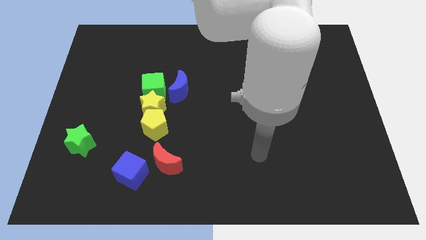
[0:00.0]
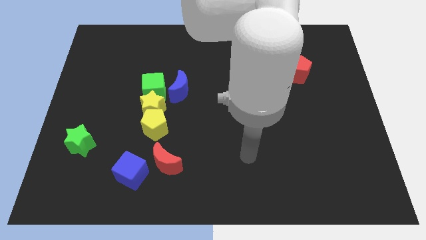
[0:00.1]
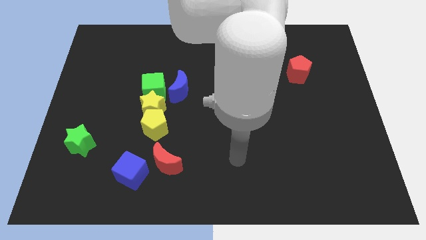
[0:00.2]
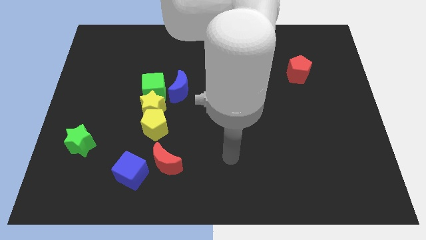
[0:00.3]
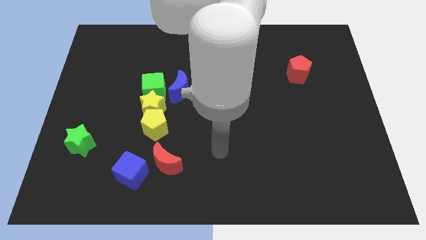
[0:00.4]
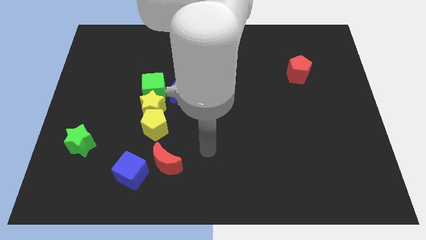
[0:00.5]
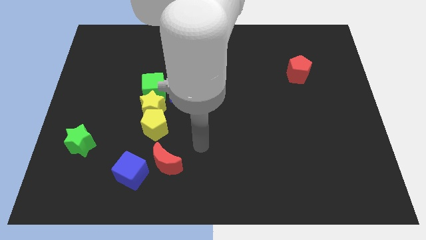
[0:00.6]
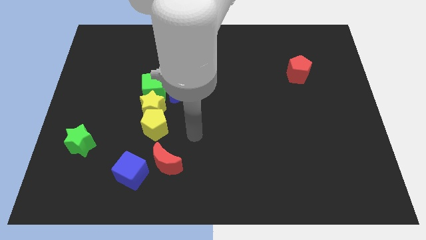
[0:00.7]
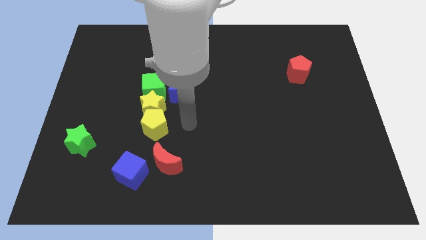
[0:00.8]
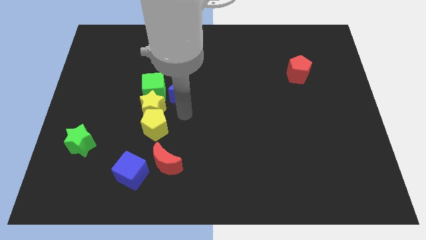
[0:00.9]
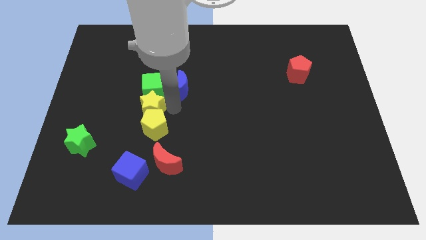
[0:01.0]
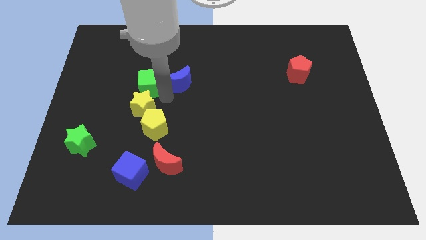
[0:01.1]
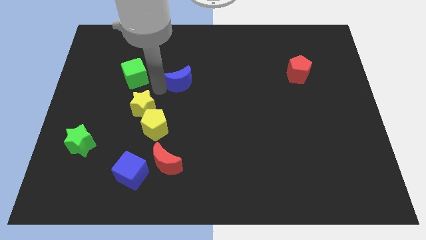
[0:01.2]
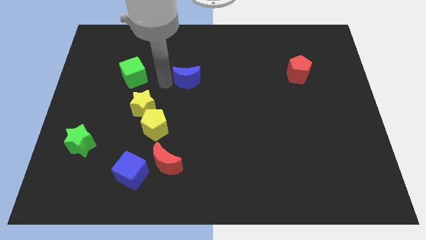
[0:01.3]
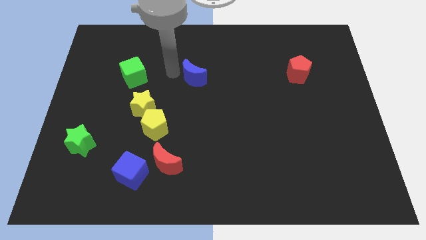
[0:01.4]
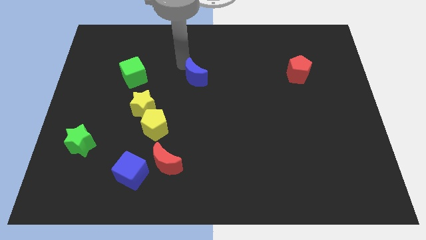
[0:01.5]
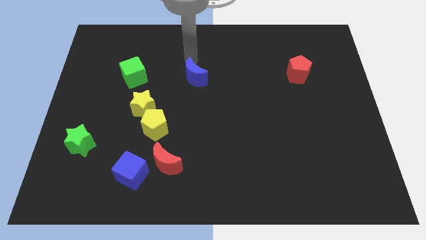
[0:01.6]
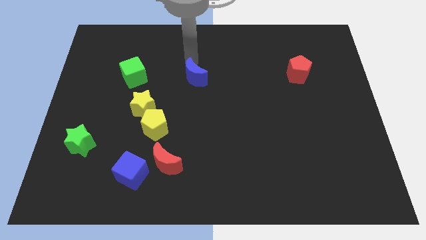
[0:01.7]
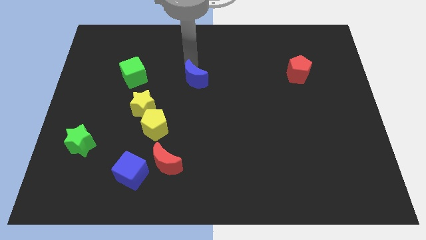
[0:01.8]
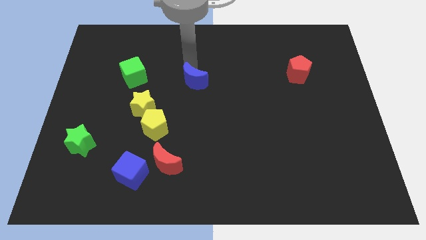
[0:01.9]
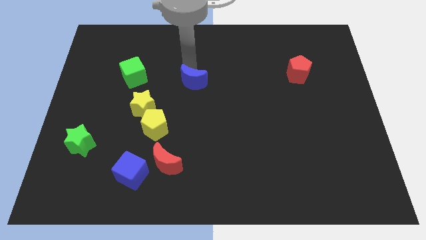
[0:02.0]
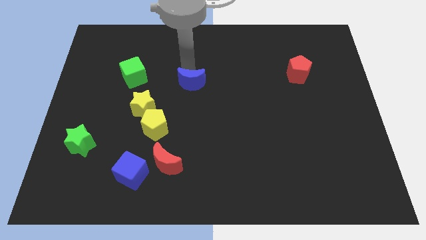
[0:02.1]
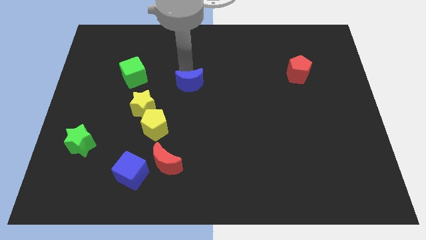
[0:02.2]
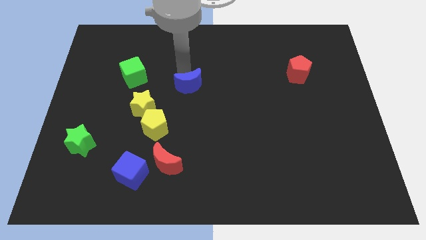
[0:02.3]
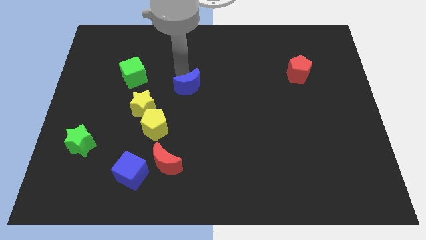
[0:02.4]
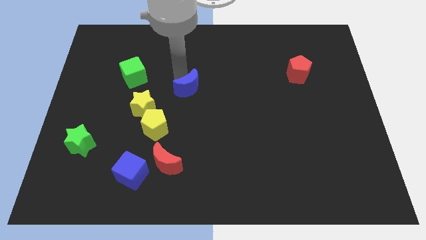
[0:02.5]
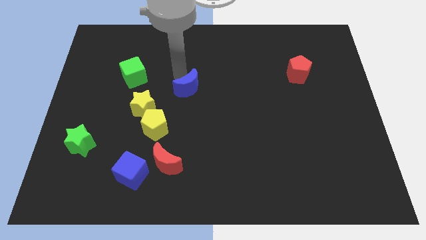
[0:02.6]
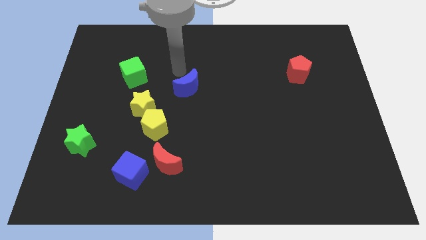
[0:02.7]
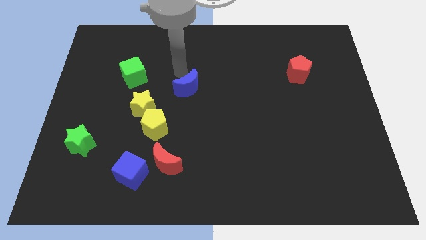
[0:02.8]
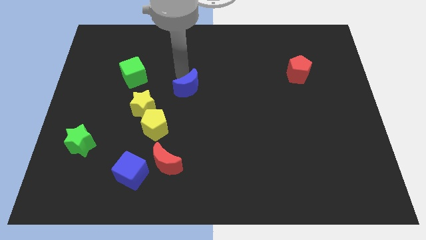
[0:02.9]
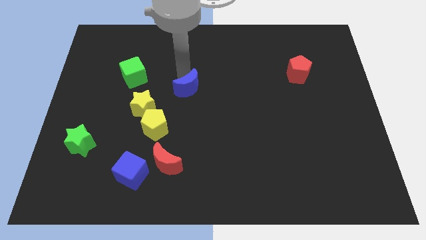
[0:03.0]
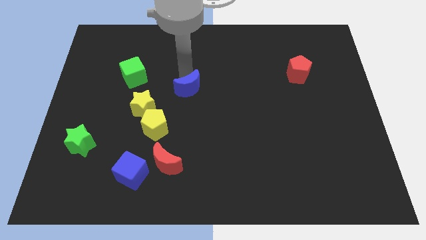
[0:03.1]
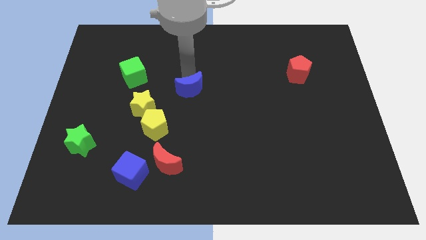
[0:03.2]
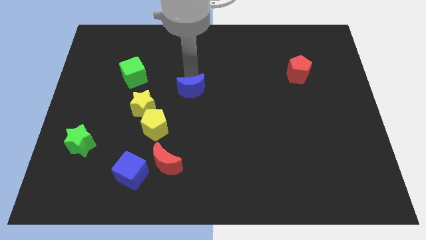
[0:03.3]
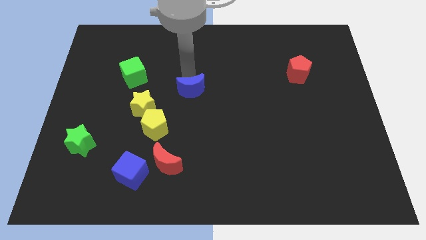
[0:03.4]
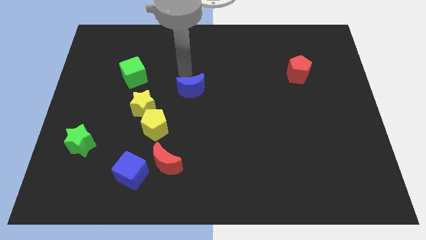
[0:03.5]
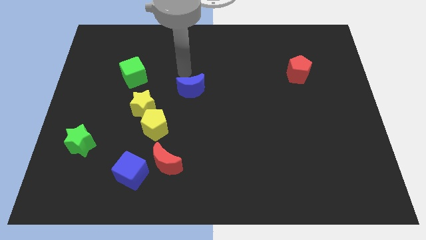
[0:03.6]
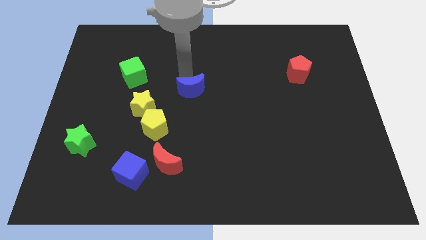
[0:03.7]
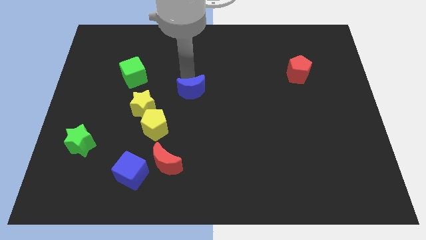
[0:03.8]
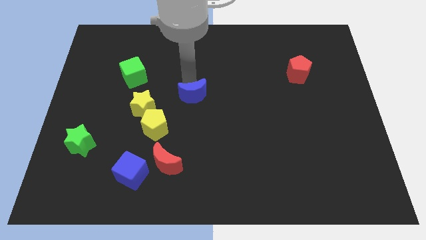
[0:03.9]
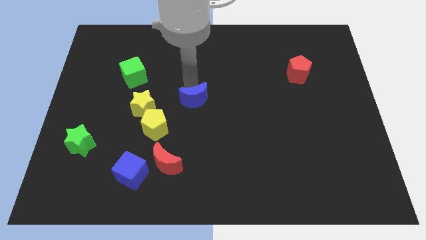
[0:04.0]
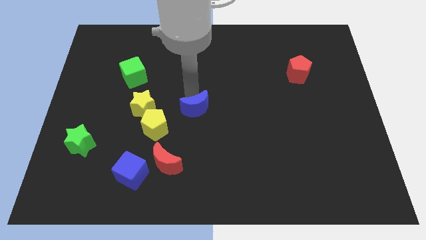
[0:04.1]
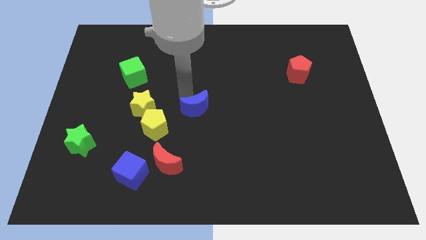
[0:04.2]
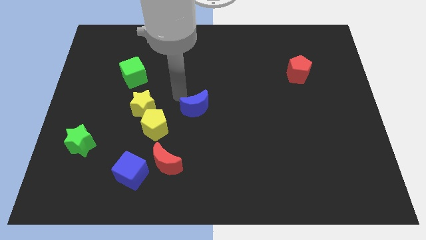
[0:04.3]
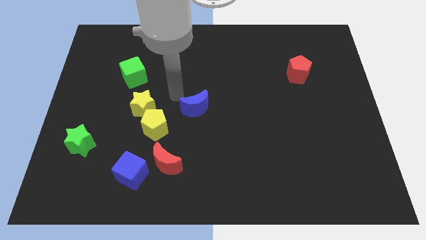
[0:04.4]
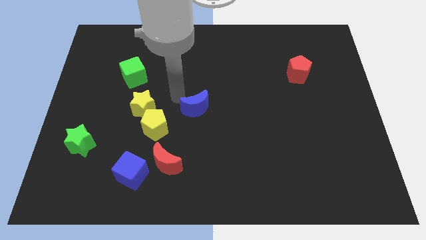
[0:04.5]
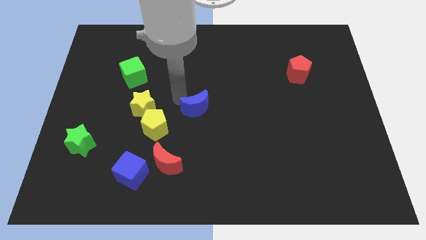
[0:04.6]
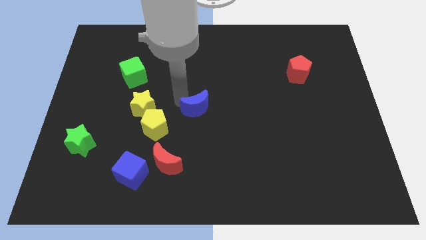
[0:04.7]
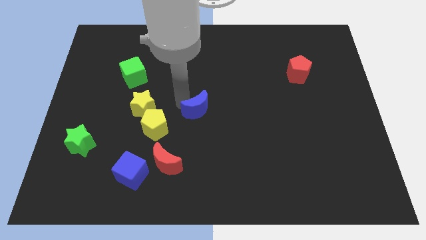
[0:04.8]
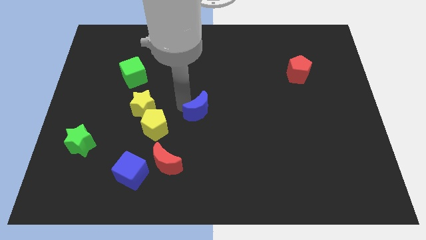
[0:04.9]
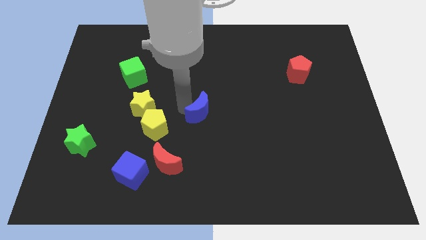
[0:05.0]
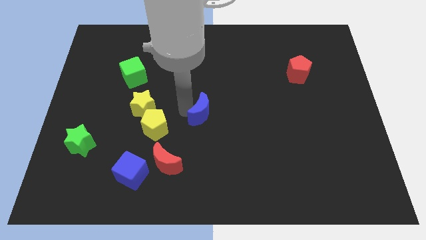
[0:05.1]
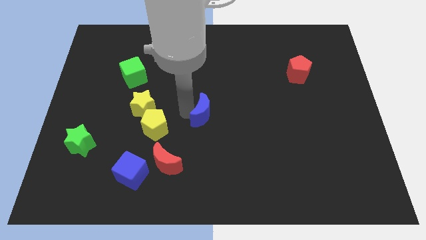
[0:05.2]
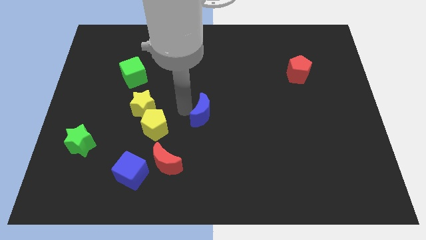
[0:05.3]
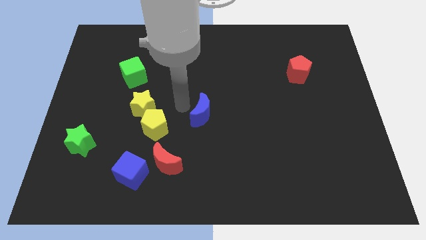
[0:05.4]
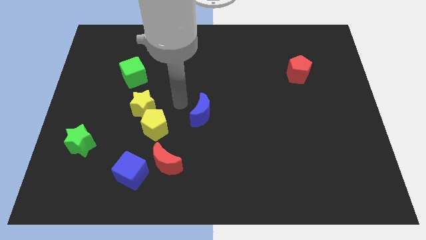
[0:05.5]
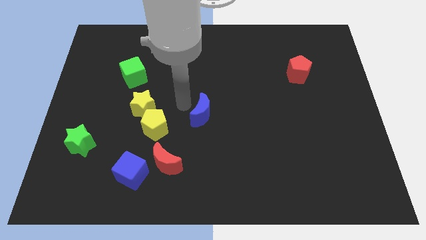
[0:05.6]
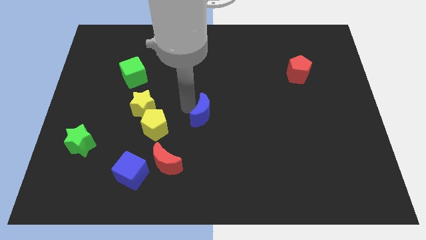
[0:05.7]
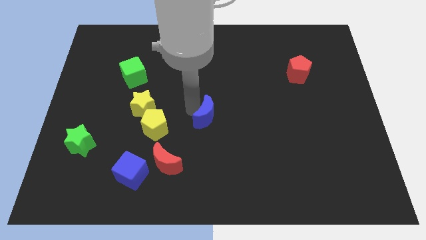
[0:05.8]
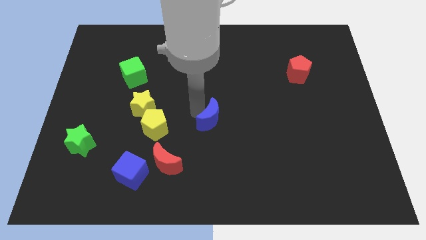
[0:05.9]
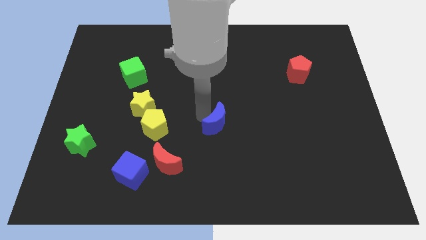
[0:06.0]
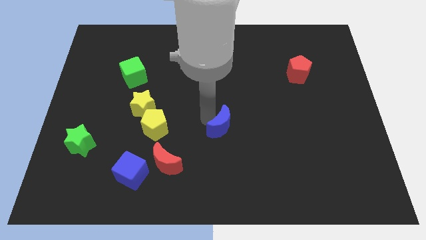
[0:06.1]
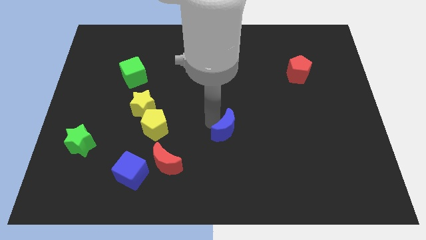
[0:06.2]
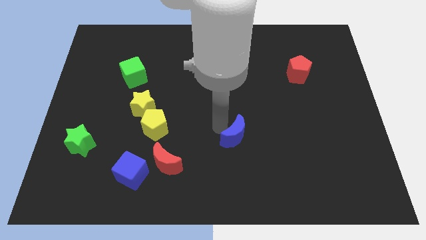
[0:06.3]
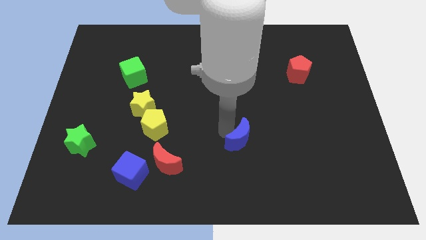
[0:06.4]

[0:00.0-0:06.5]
push the blue moon down and then right

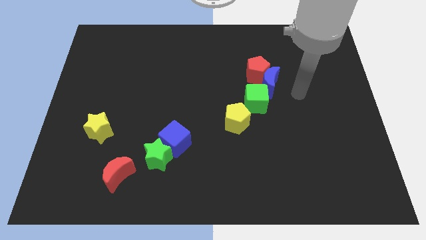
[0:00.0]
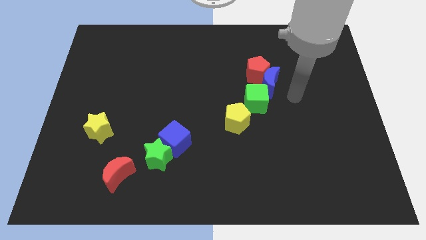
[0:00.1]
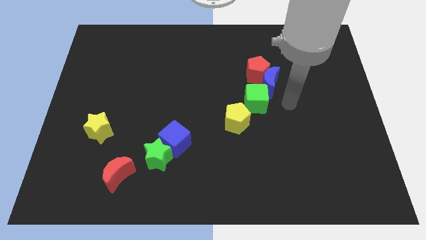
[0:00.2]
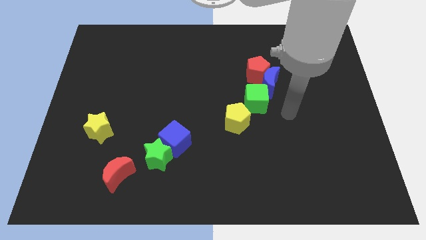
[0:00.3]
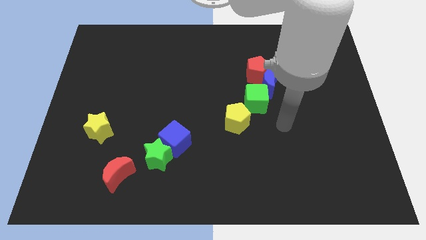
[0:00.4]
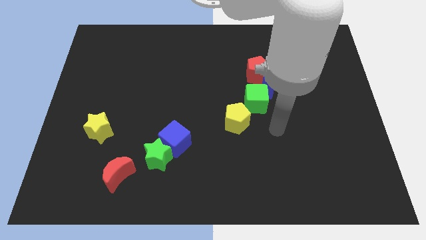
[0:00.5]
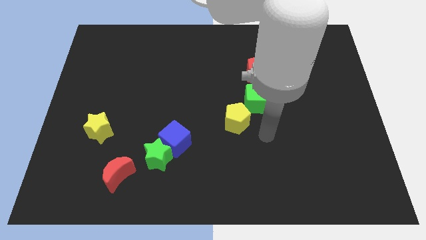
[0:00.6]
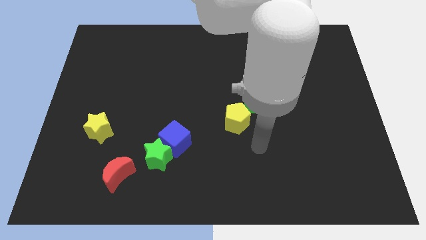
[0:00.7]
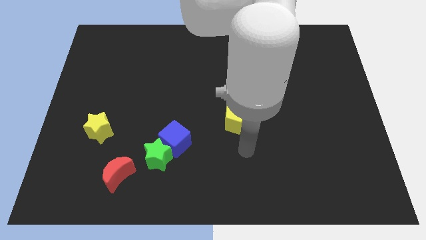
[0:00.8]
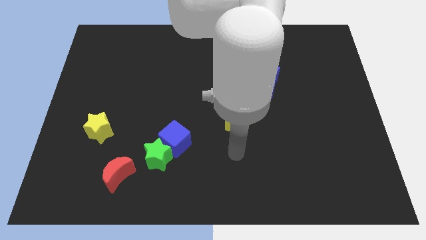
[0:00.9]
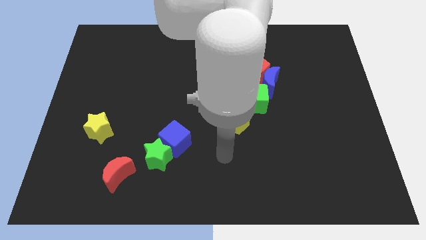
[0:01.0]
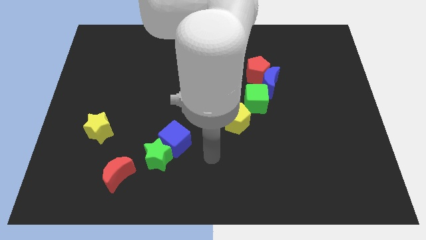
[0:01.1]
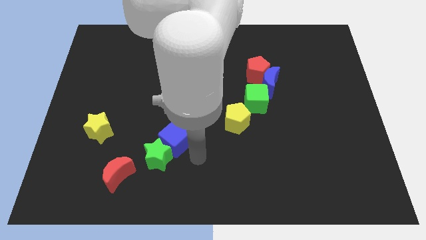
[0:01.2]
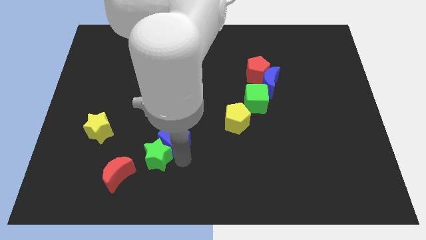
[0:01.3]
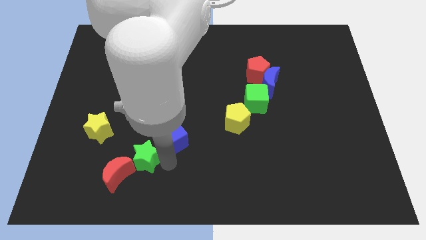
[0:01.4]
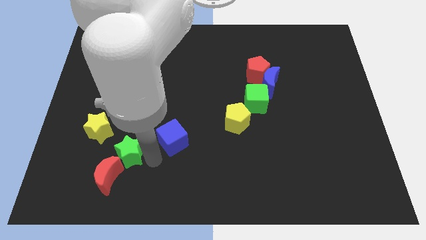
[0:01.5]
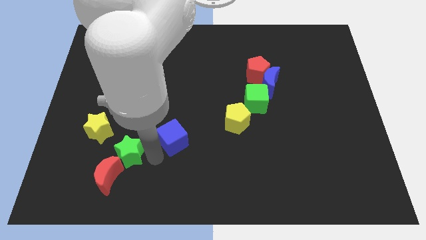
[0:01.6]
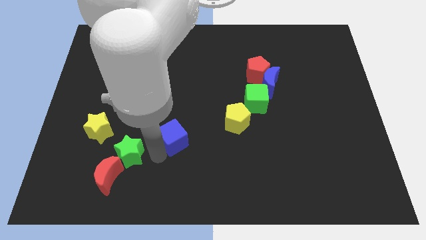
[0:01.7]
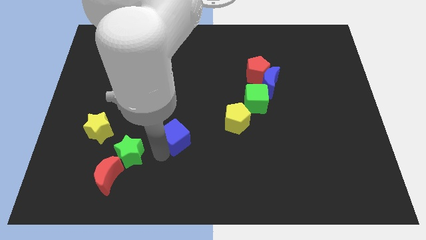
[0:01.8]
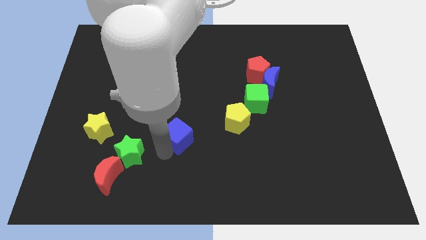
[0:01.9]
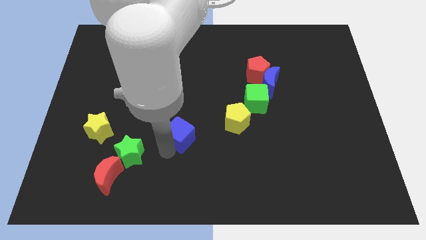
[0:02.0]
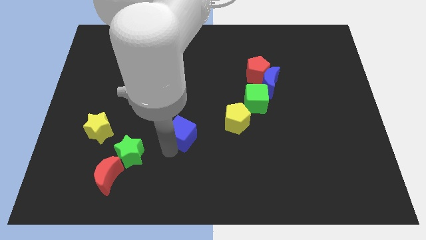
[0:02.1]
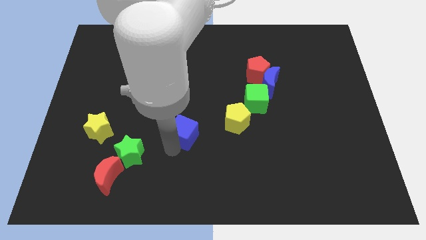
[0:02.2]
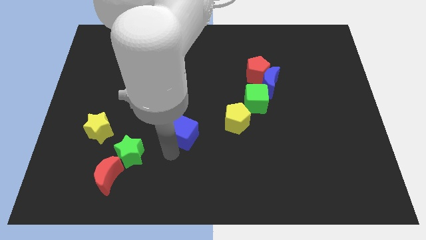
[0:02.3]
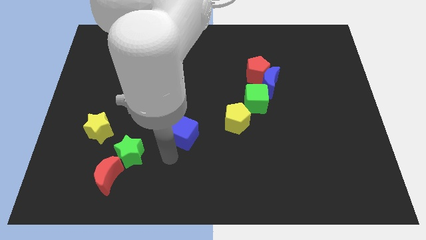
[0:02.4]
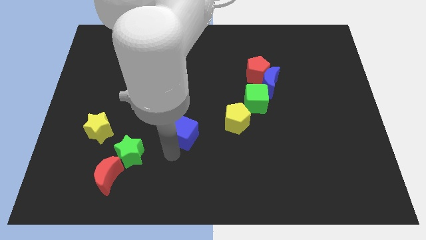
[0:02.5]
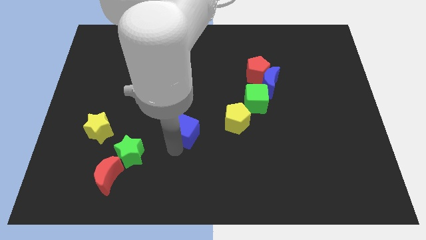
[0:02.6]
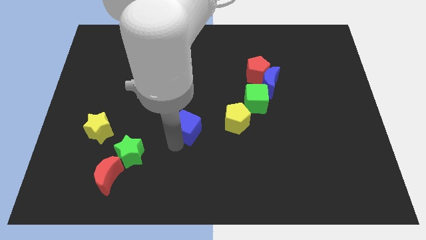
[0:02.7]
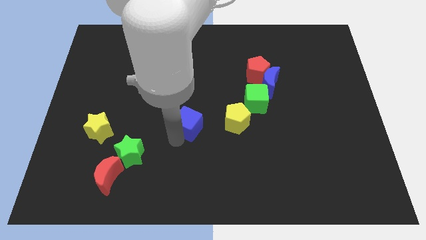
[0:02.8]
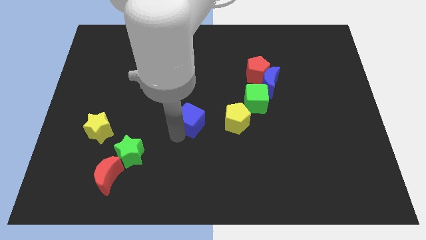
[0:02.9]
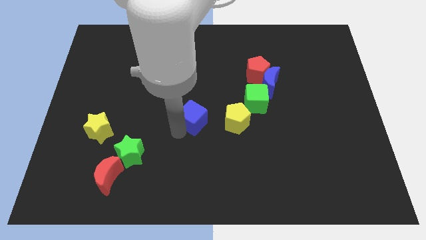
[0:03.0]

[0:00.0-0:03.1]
slightly slide the blue cube diagonally up and to the right
